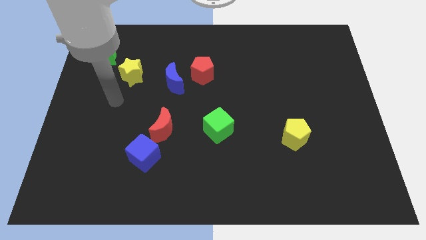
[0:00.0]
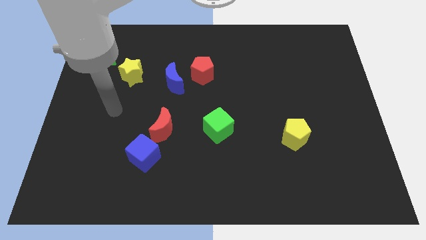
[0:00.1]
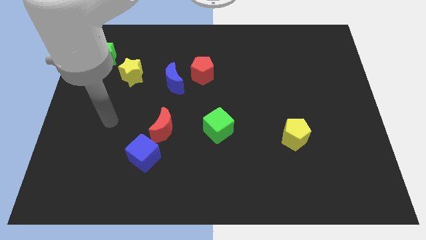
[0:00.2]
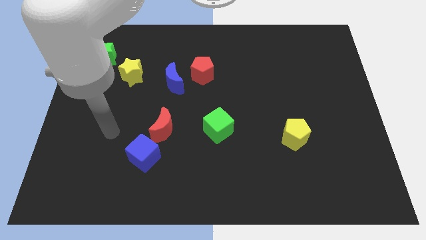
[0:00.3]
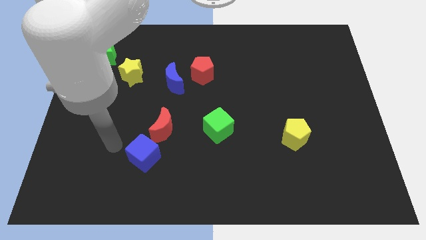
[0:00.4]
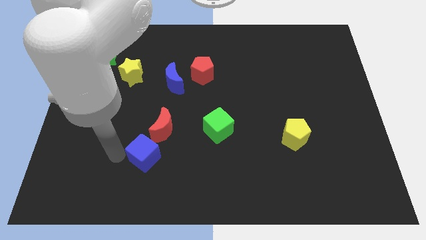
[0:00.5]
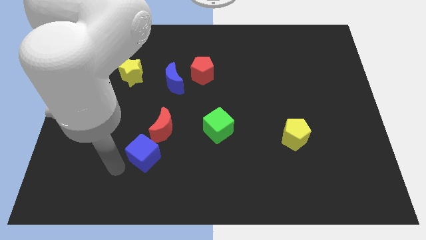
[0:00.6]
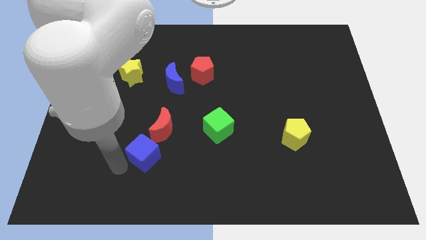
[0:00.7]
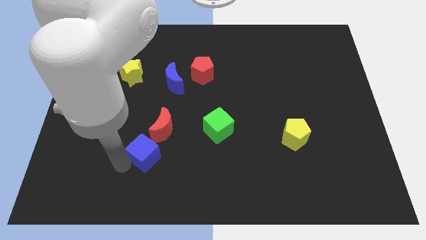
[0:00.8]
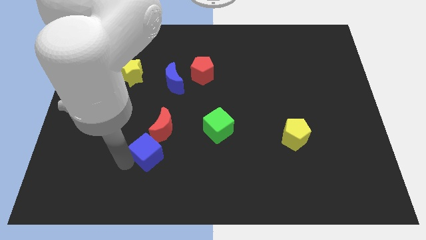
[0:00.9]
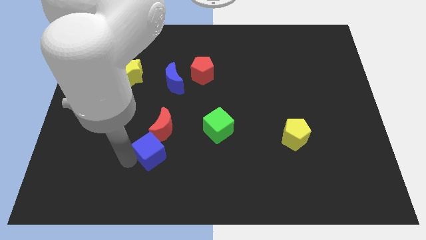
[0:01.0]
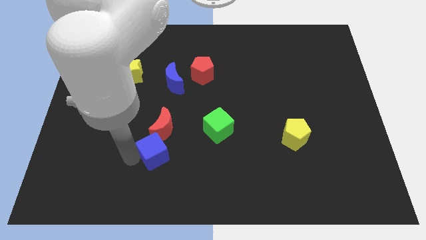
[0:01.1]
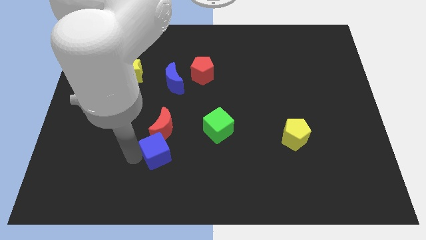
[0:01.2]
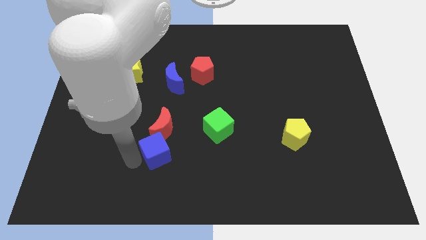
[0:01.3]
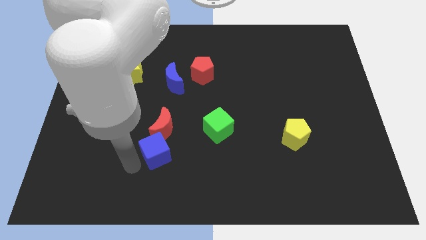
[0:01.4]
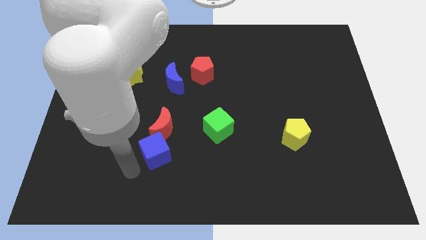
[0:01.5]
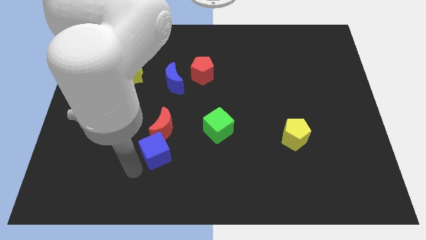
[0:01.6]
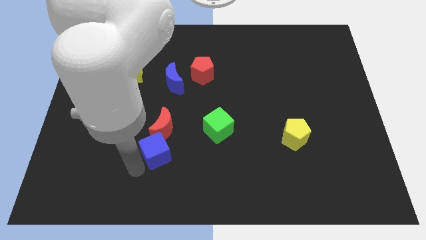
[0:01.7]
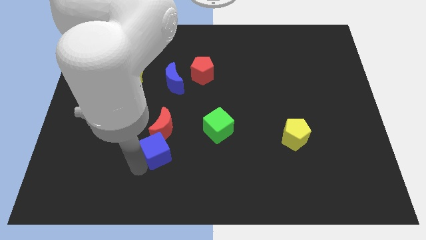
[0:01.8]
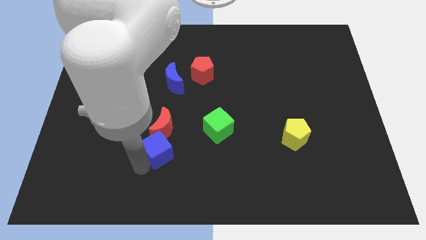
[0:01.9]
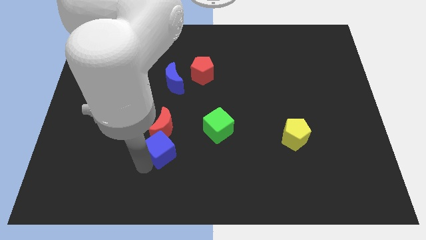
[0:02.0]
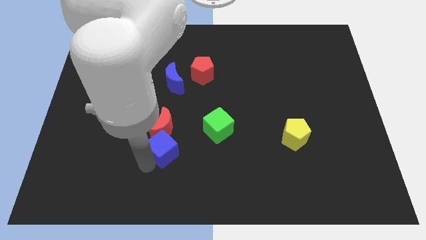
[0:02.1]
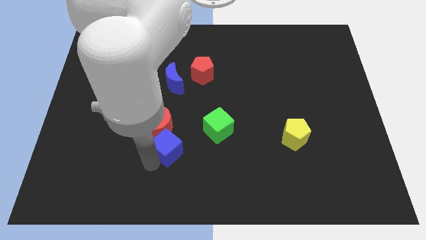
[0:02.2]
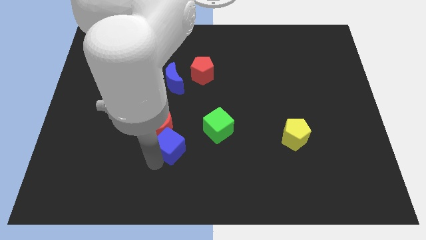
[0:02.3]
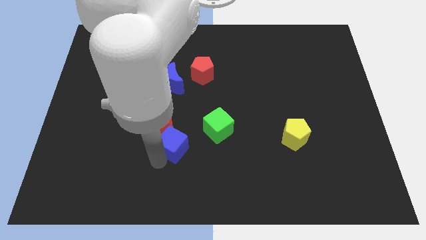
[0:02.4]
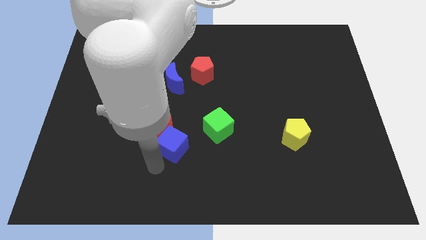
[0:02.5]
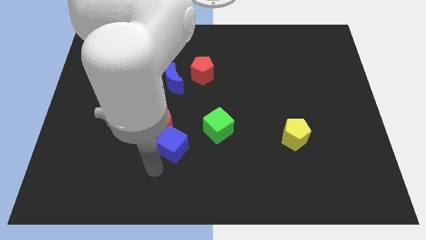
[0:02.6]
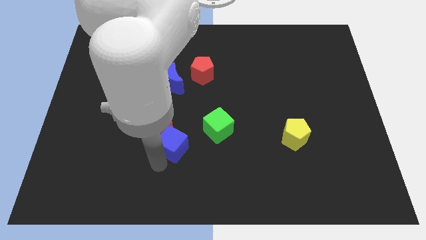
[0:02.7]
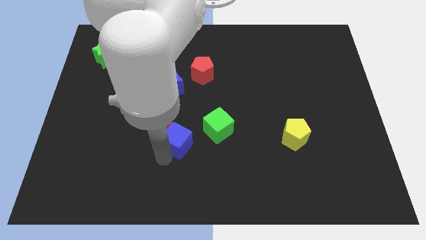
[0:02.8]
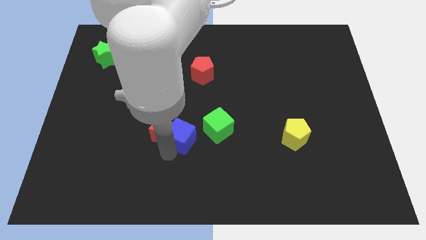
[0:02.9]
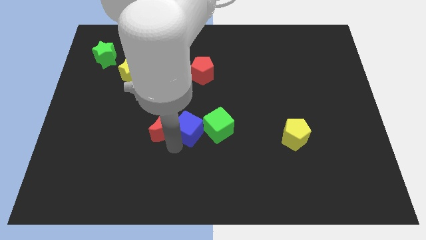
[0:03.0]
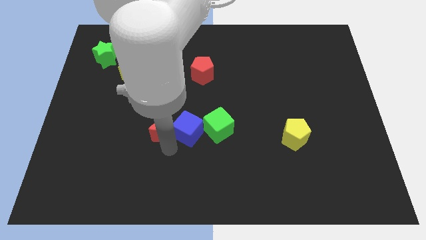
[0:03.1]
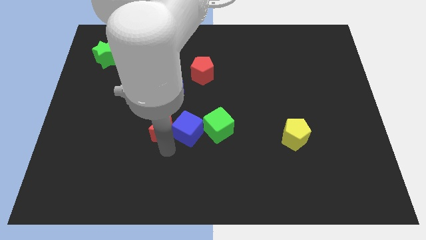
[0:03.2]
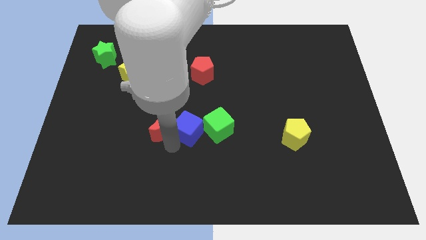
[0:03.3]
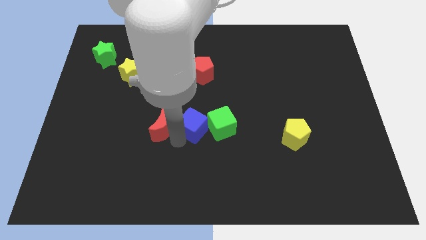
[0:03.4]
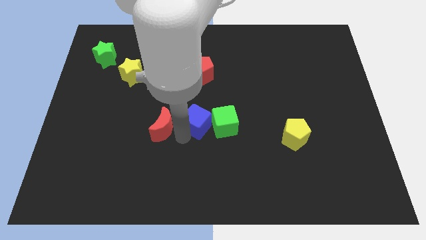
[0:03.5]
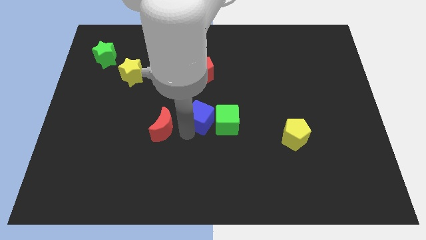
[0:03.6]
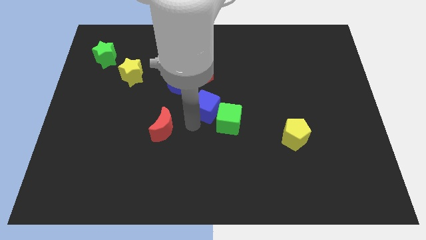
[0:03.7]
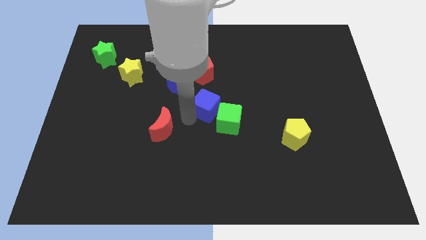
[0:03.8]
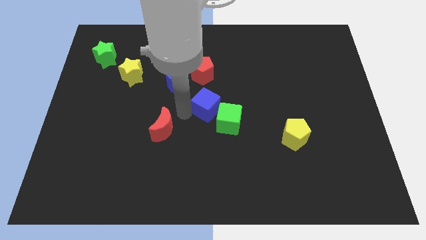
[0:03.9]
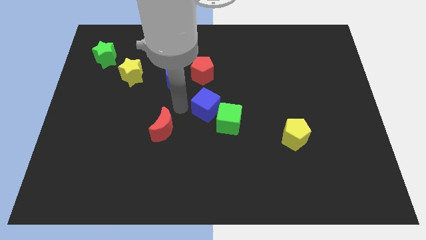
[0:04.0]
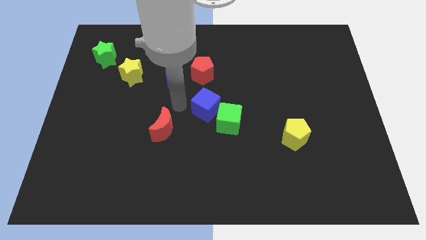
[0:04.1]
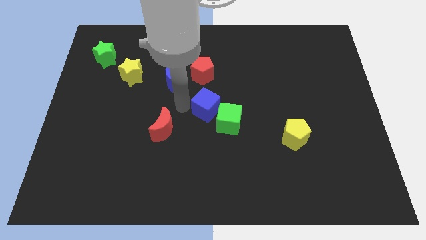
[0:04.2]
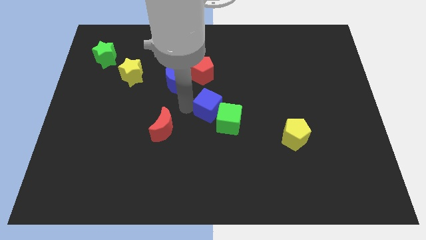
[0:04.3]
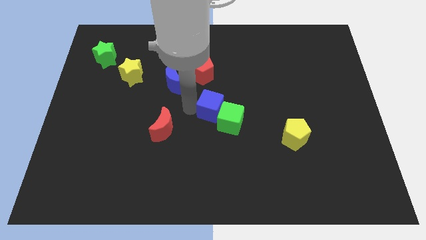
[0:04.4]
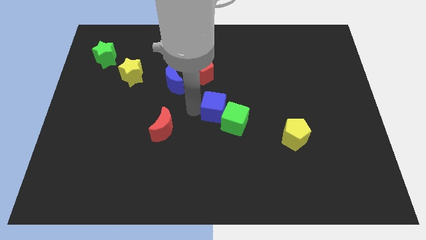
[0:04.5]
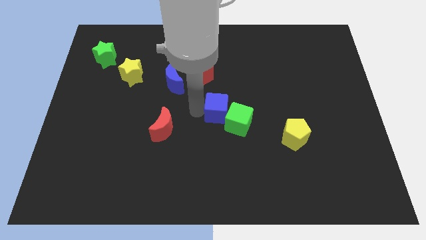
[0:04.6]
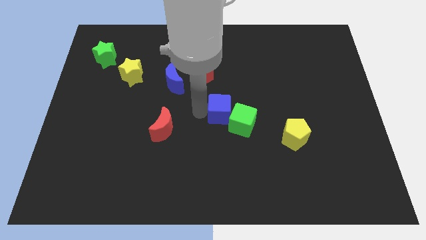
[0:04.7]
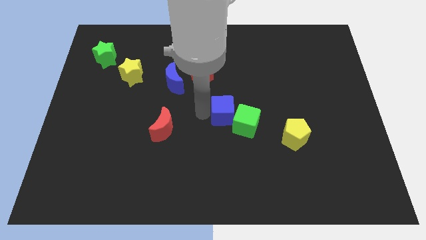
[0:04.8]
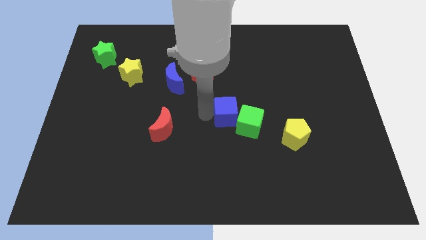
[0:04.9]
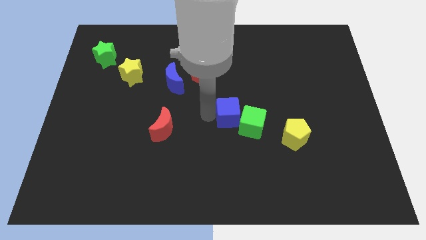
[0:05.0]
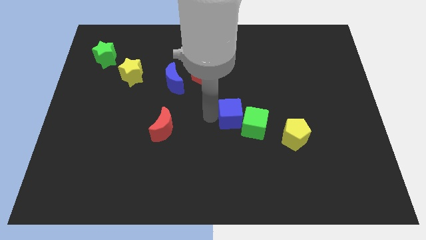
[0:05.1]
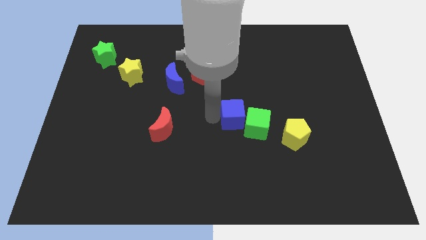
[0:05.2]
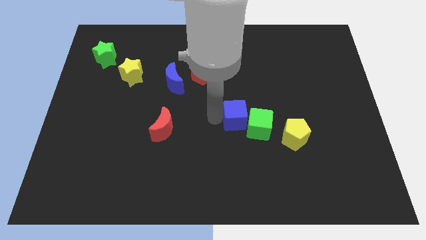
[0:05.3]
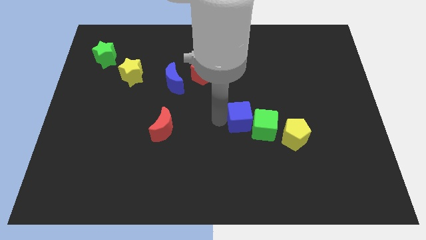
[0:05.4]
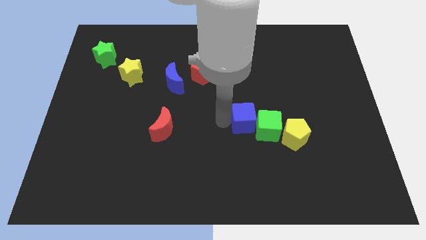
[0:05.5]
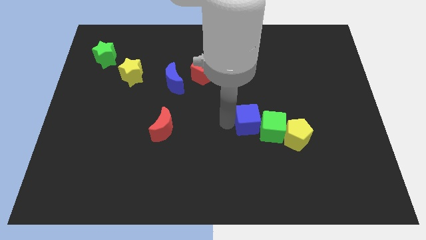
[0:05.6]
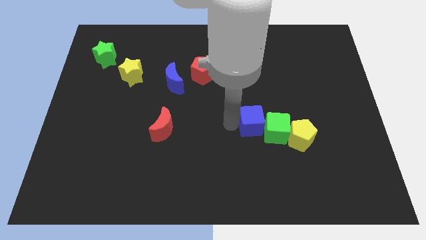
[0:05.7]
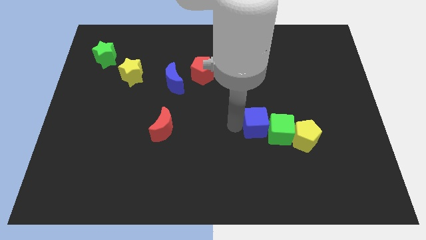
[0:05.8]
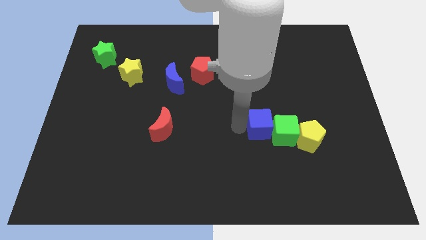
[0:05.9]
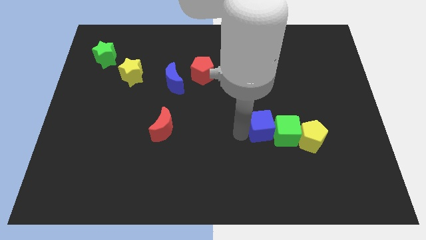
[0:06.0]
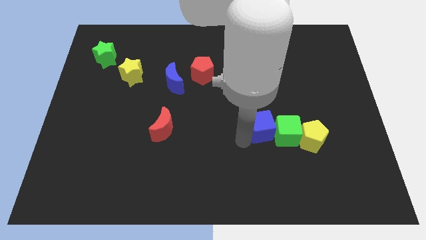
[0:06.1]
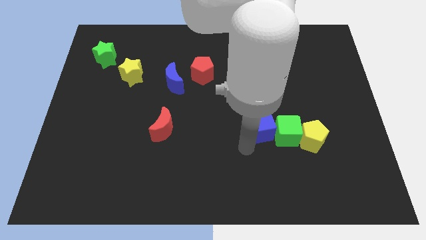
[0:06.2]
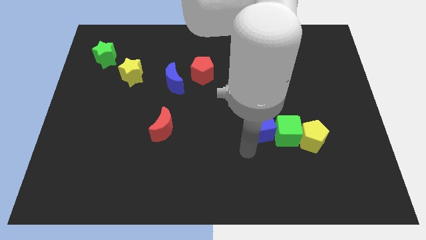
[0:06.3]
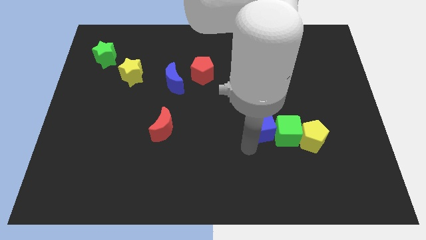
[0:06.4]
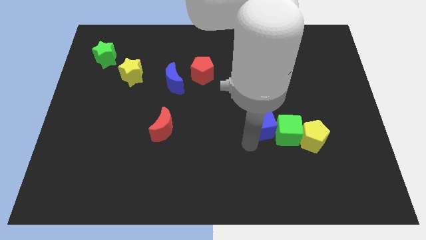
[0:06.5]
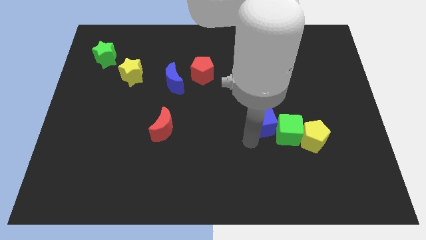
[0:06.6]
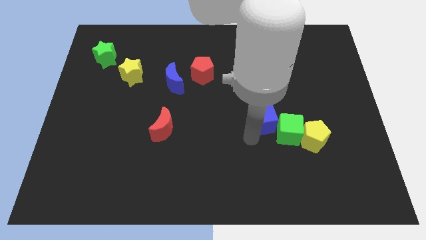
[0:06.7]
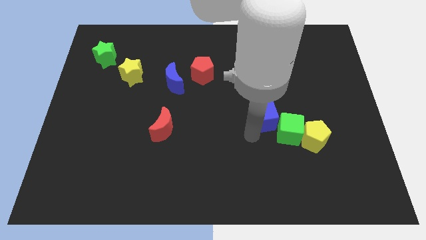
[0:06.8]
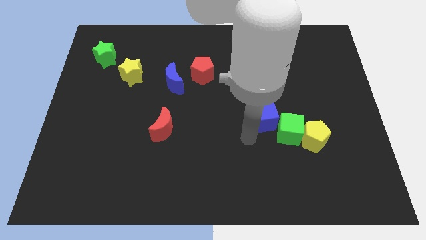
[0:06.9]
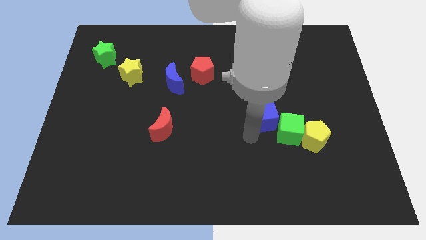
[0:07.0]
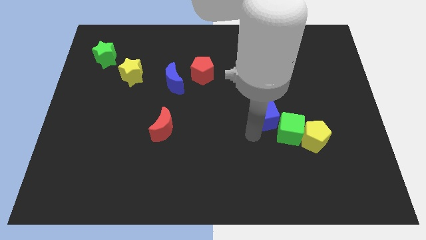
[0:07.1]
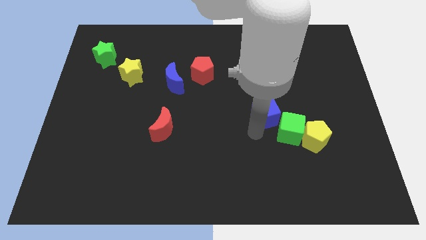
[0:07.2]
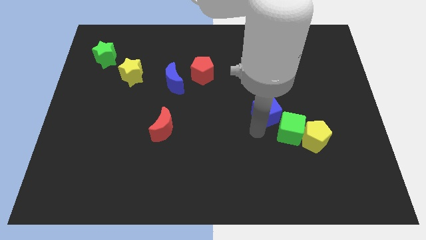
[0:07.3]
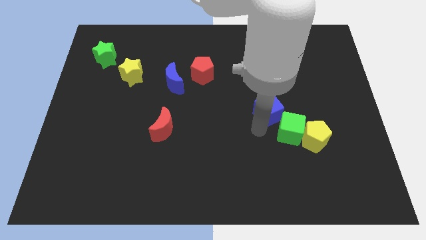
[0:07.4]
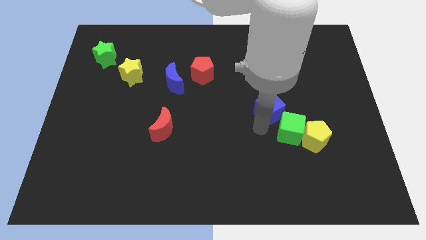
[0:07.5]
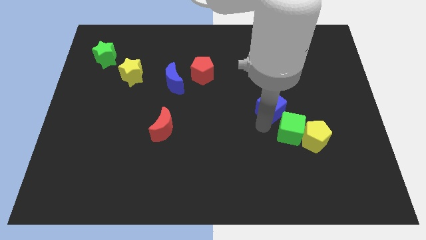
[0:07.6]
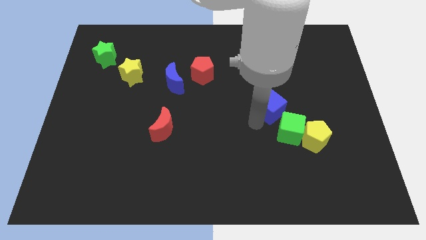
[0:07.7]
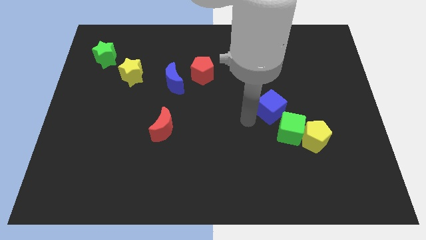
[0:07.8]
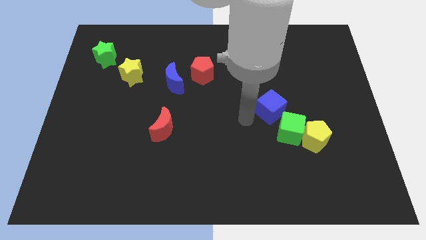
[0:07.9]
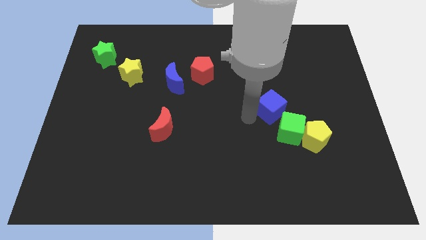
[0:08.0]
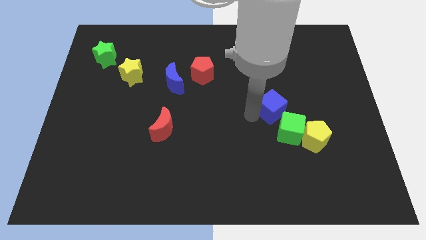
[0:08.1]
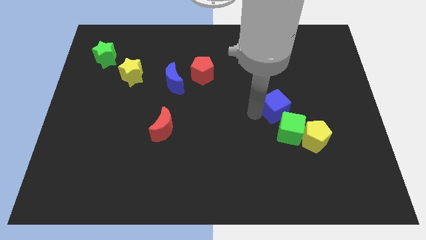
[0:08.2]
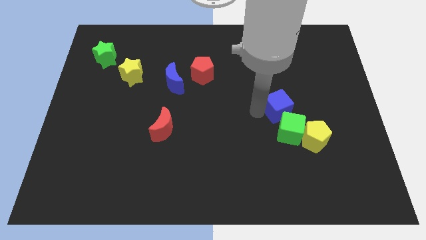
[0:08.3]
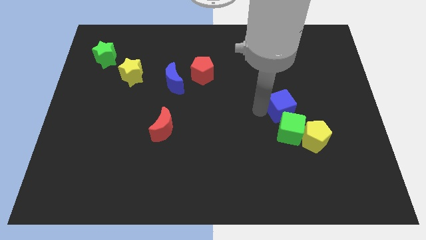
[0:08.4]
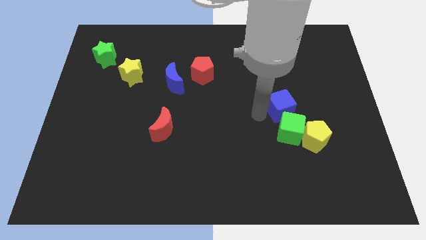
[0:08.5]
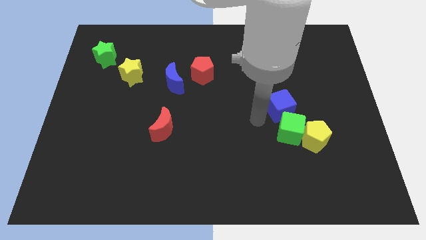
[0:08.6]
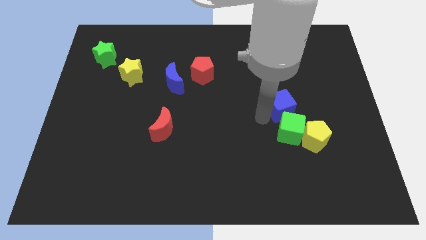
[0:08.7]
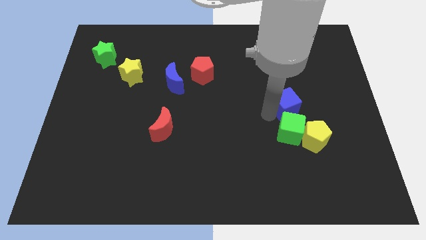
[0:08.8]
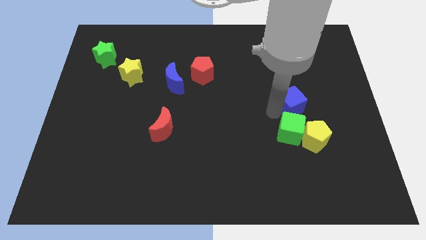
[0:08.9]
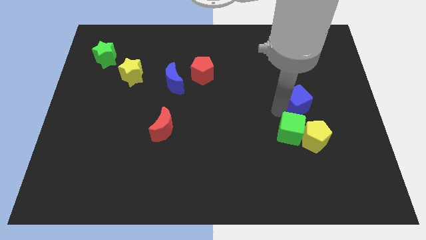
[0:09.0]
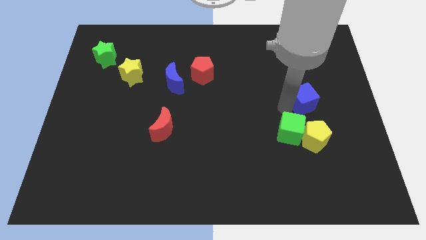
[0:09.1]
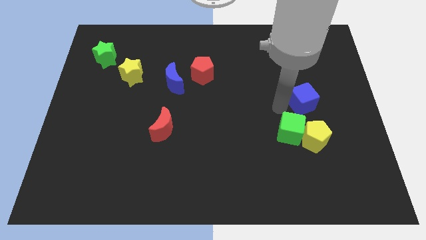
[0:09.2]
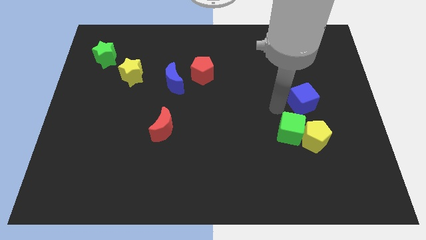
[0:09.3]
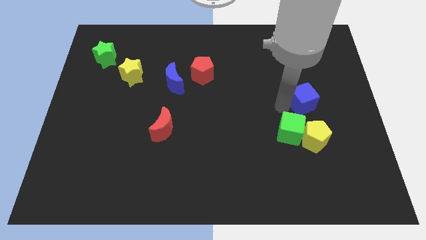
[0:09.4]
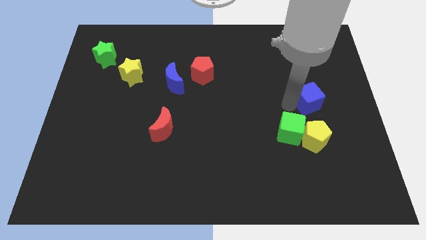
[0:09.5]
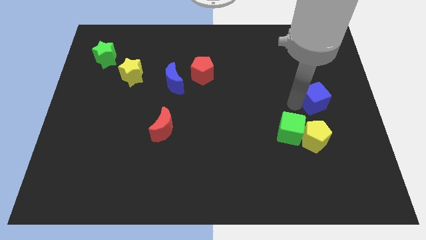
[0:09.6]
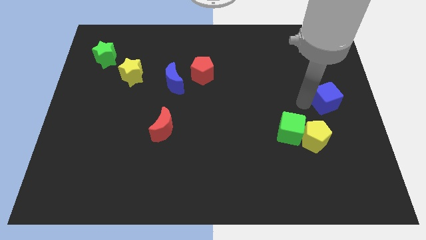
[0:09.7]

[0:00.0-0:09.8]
push the blue cube to the right side
